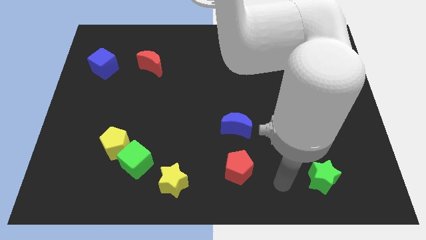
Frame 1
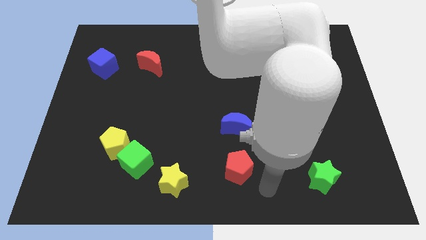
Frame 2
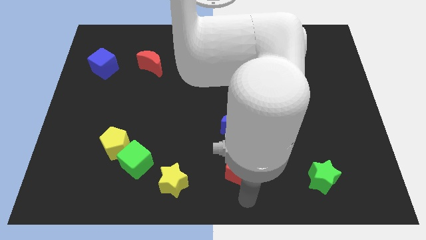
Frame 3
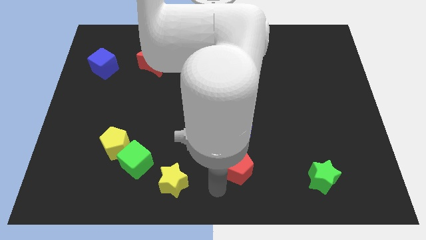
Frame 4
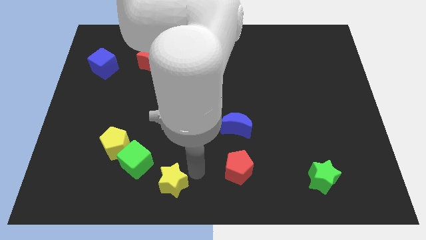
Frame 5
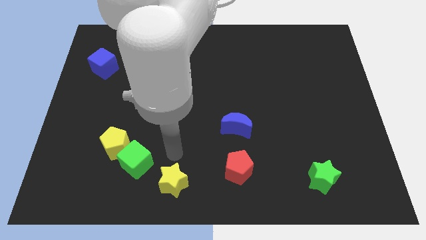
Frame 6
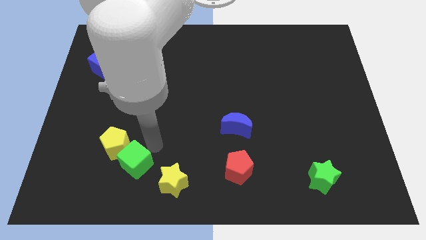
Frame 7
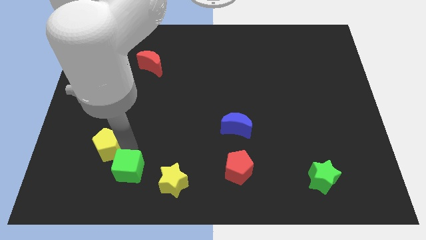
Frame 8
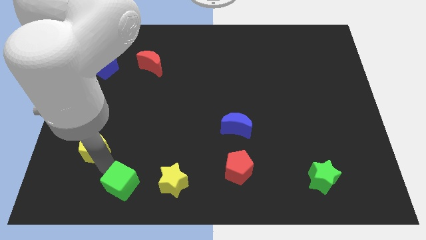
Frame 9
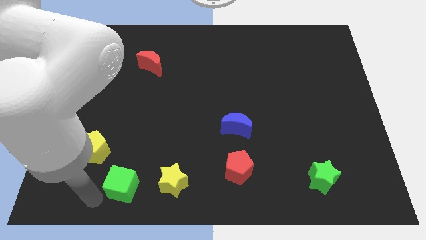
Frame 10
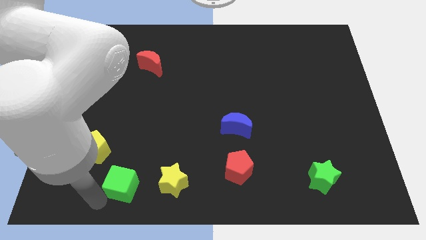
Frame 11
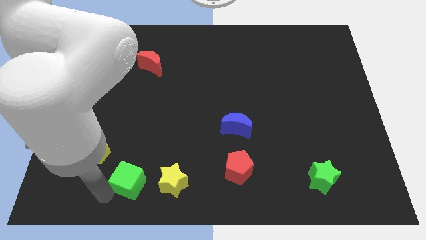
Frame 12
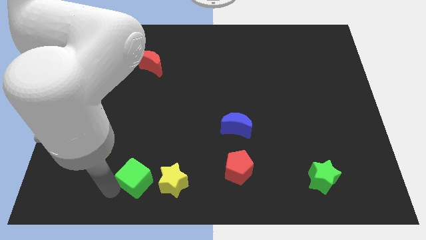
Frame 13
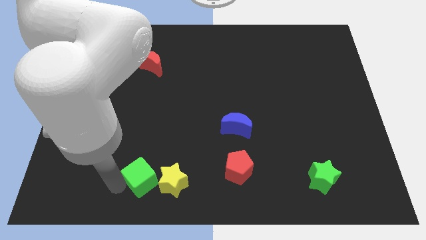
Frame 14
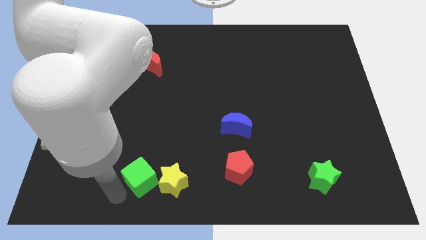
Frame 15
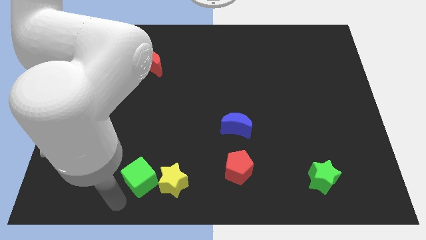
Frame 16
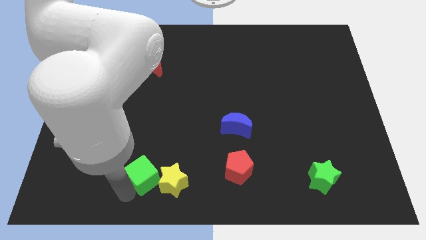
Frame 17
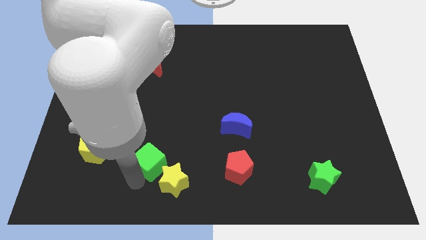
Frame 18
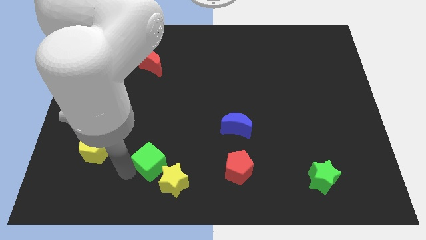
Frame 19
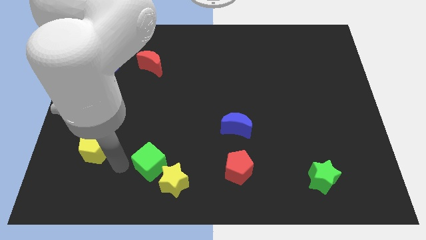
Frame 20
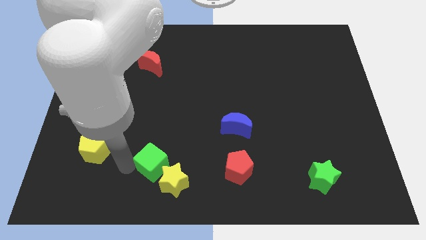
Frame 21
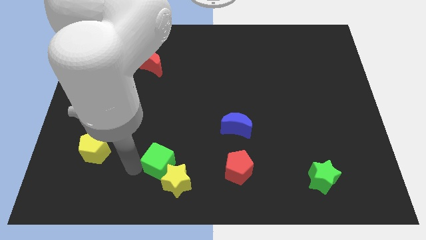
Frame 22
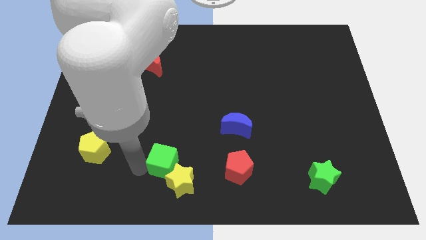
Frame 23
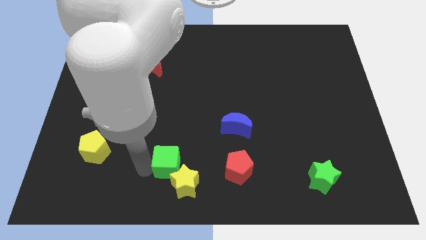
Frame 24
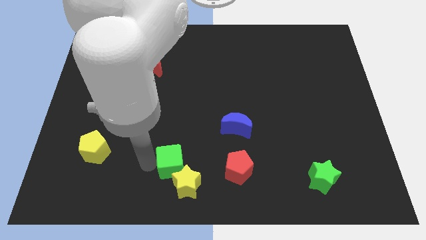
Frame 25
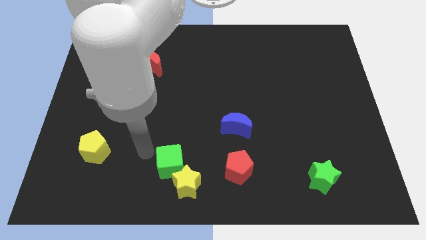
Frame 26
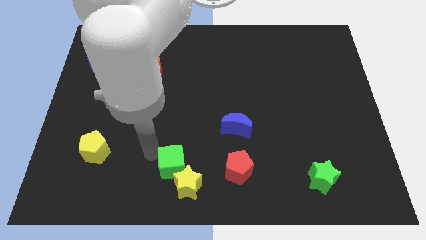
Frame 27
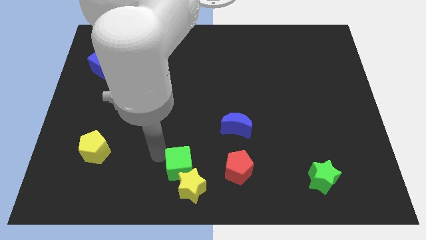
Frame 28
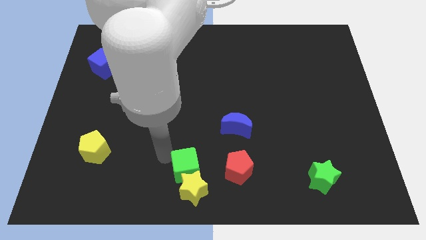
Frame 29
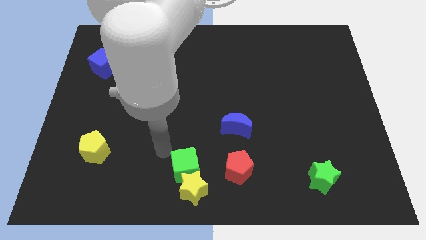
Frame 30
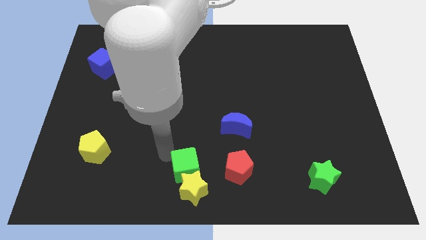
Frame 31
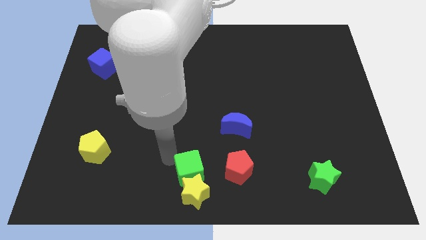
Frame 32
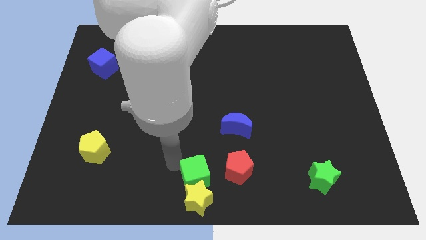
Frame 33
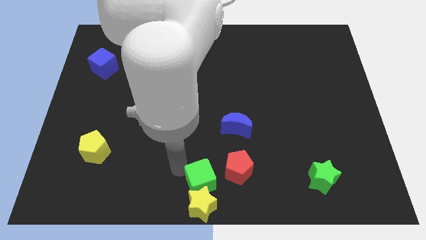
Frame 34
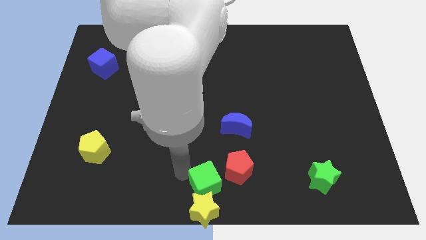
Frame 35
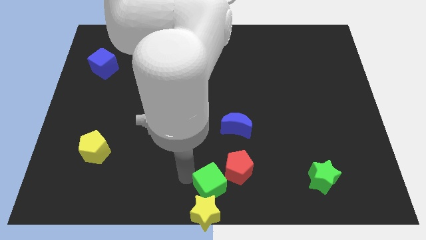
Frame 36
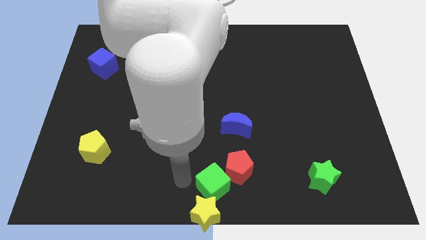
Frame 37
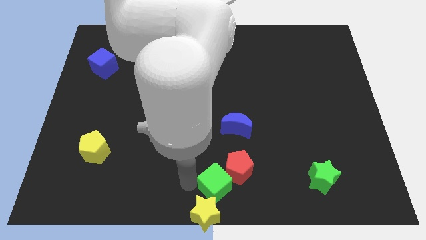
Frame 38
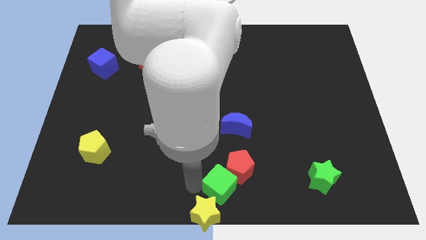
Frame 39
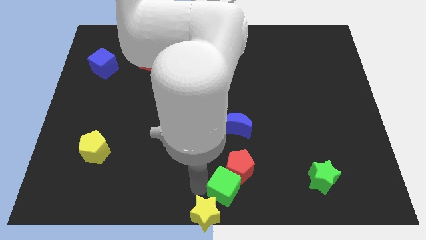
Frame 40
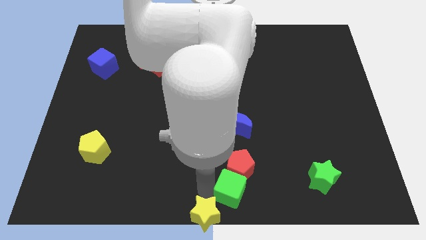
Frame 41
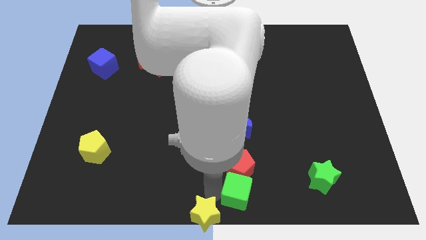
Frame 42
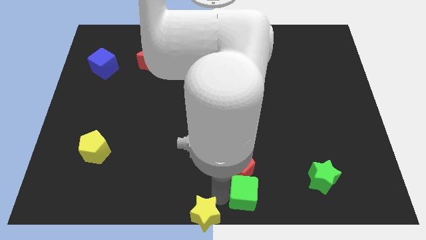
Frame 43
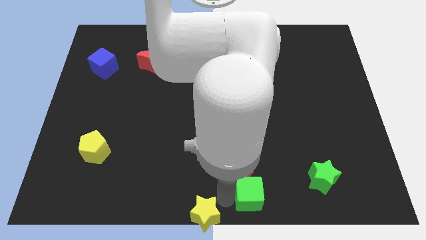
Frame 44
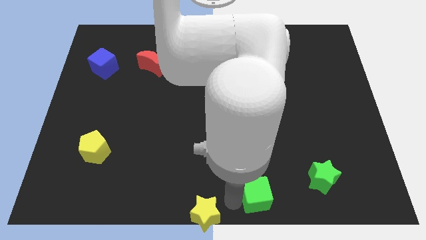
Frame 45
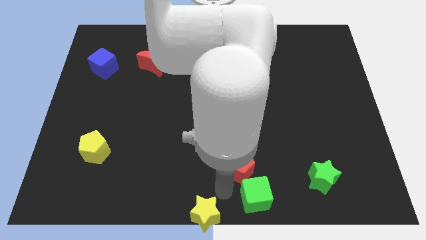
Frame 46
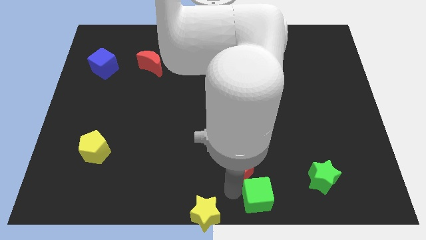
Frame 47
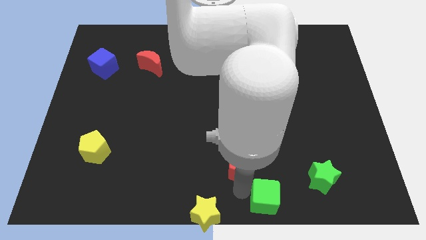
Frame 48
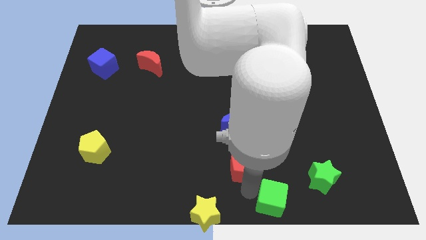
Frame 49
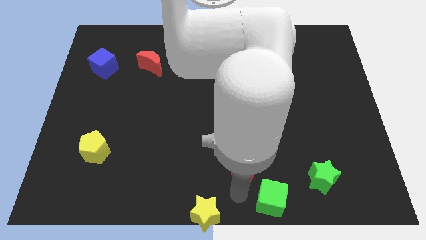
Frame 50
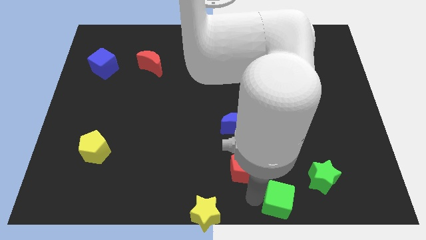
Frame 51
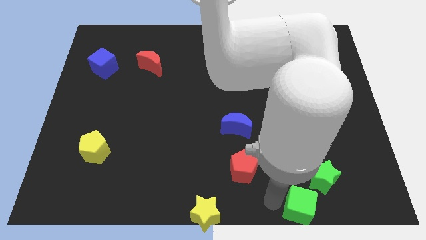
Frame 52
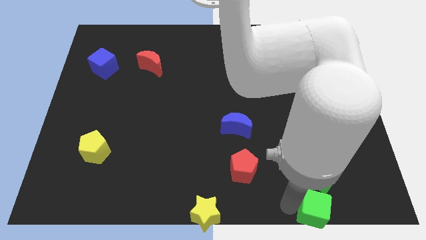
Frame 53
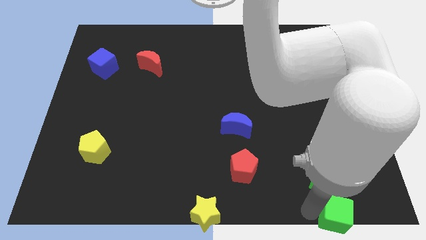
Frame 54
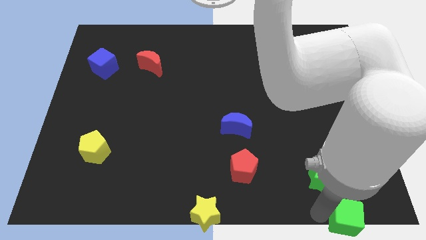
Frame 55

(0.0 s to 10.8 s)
put the green cube to the bottom right of the board

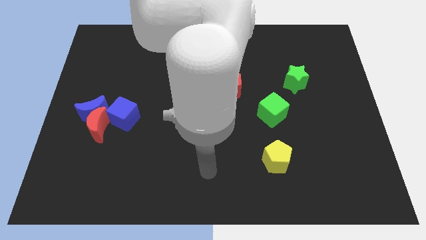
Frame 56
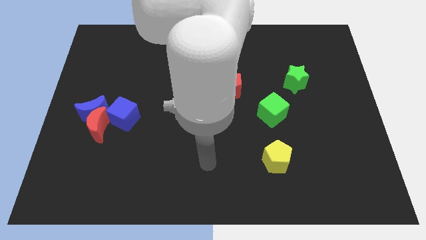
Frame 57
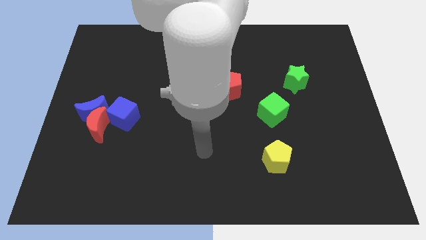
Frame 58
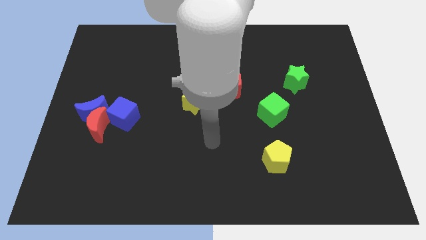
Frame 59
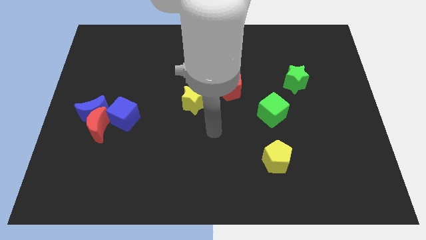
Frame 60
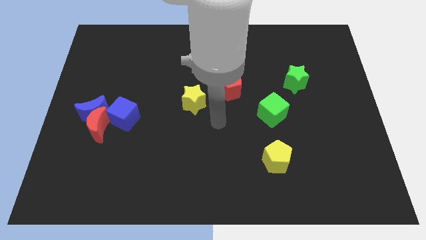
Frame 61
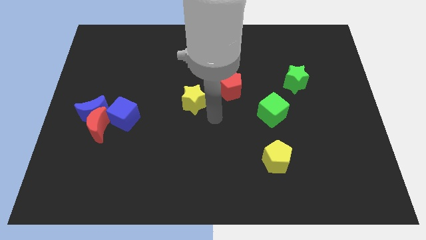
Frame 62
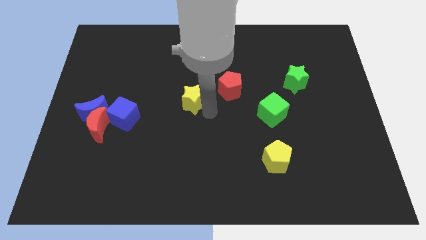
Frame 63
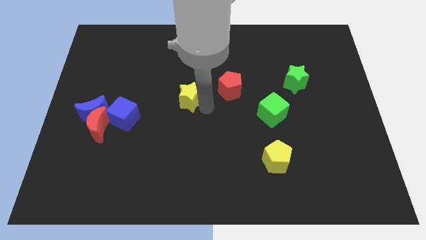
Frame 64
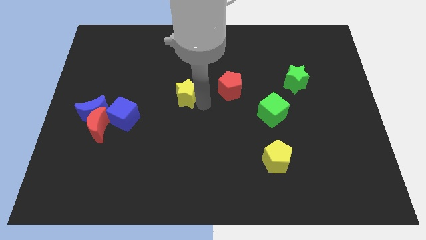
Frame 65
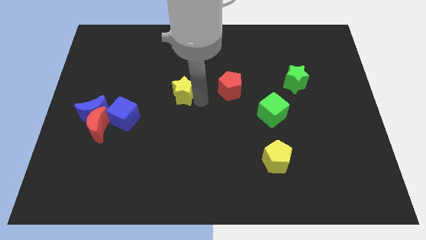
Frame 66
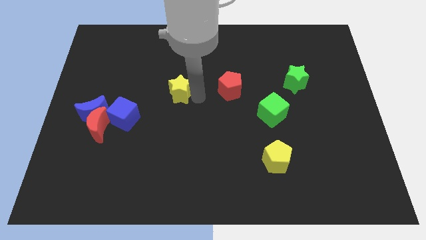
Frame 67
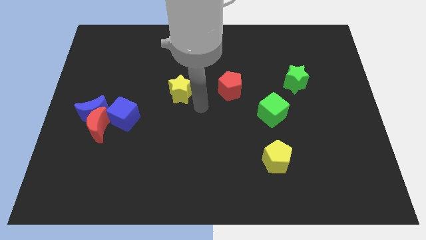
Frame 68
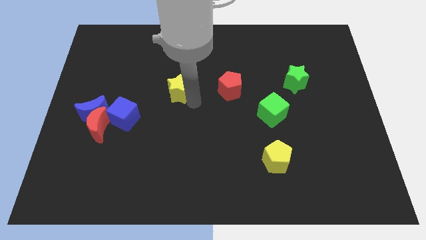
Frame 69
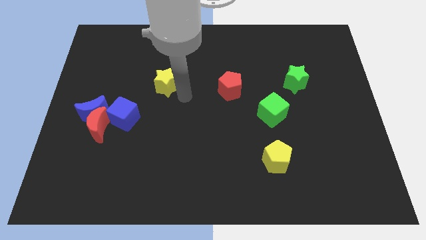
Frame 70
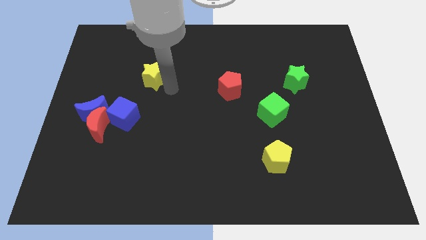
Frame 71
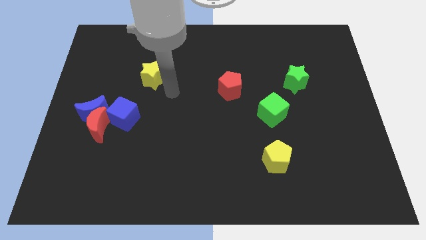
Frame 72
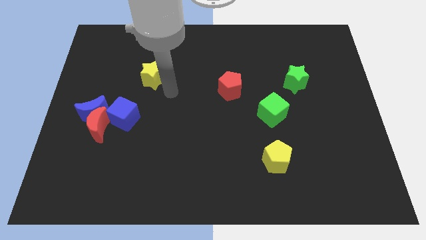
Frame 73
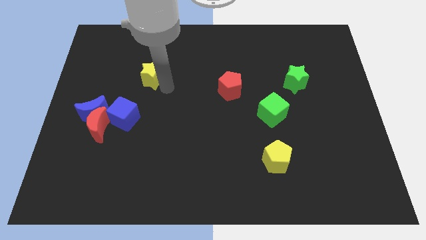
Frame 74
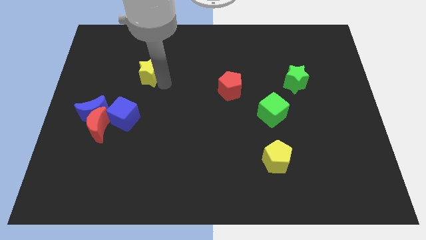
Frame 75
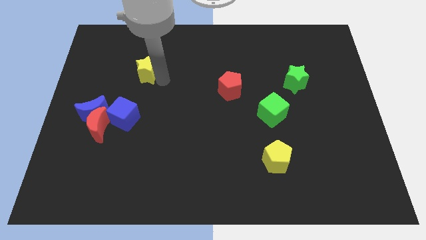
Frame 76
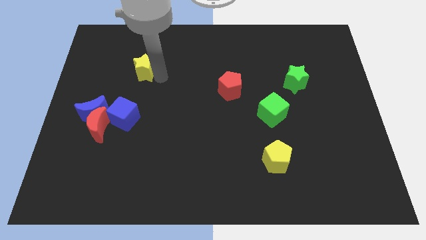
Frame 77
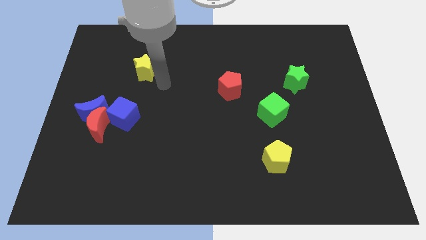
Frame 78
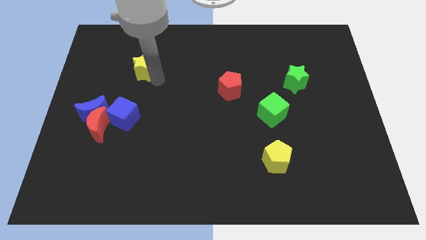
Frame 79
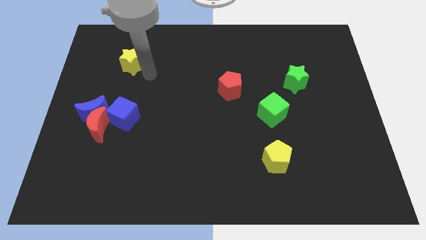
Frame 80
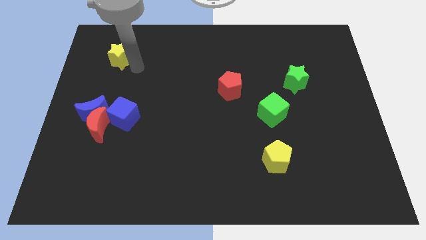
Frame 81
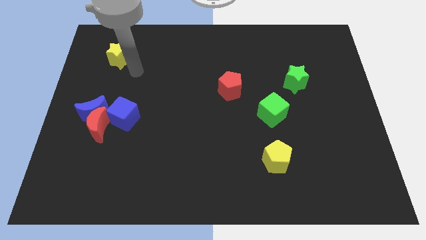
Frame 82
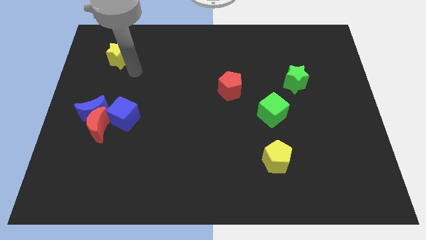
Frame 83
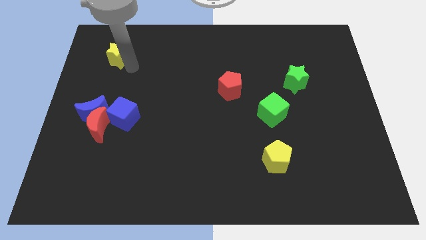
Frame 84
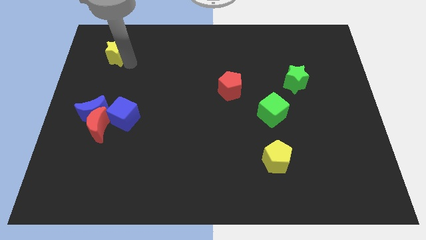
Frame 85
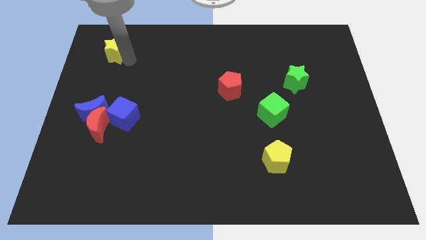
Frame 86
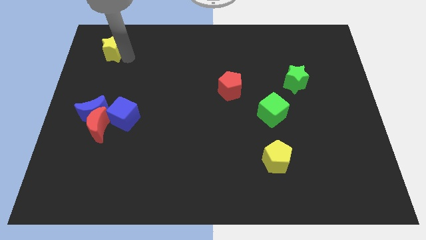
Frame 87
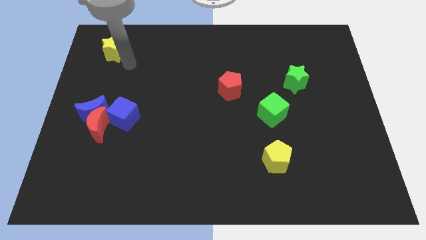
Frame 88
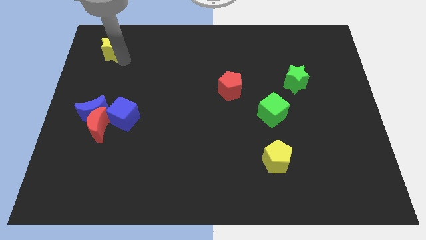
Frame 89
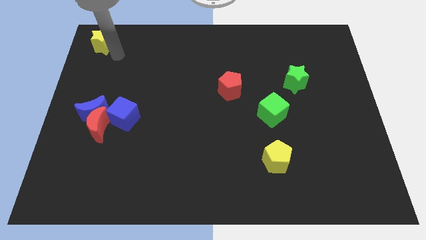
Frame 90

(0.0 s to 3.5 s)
move the yellow star to the top left
